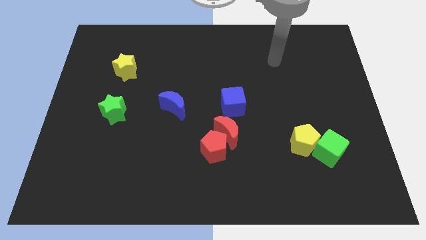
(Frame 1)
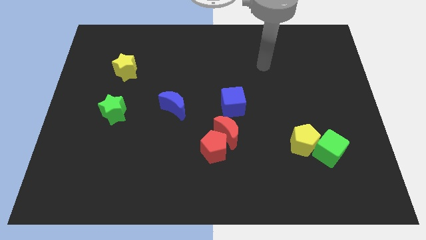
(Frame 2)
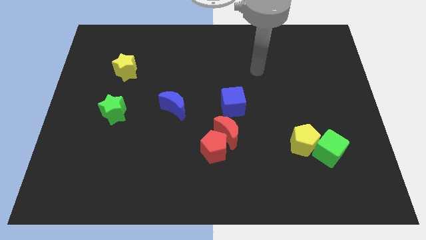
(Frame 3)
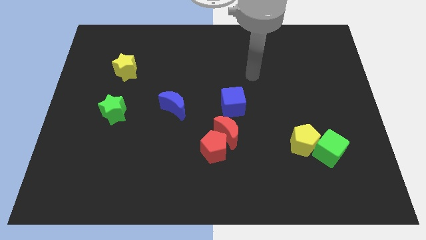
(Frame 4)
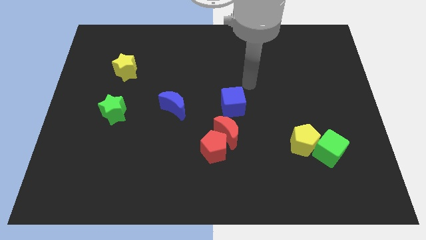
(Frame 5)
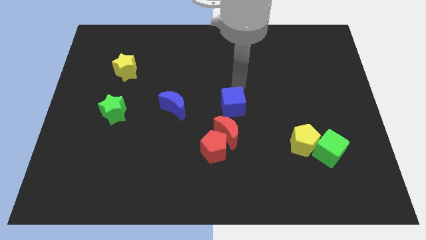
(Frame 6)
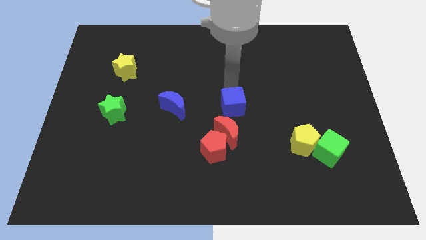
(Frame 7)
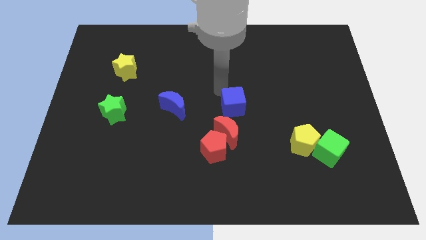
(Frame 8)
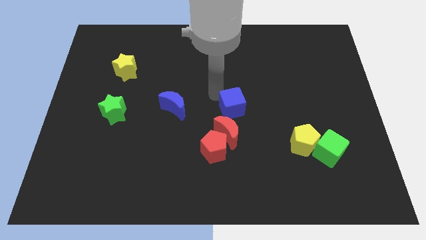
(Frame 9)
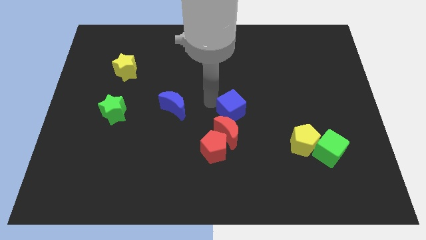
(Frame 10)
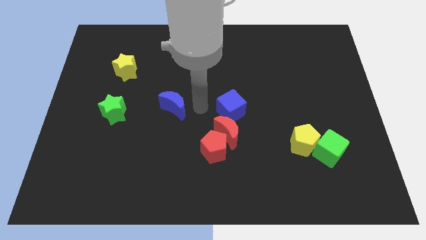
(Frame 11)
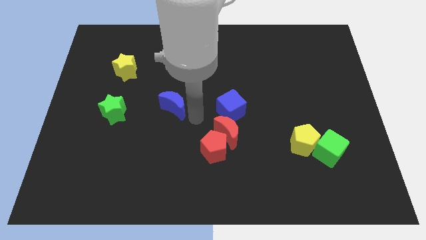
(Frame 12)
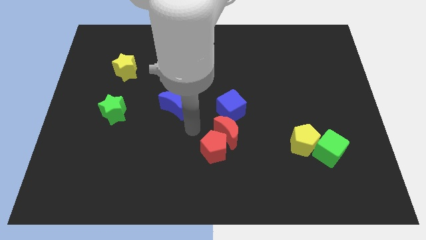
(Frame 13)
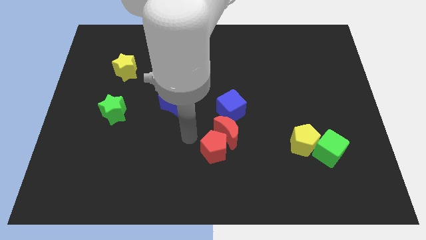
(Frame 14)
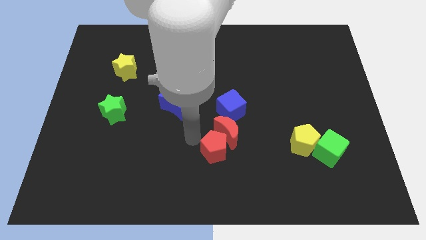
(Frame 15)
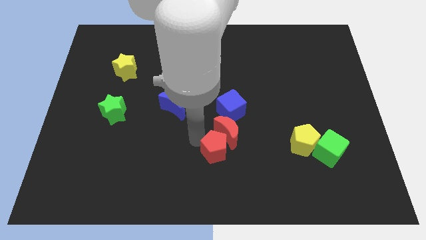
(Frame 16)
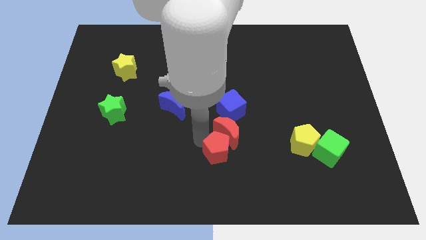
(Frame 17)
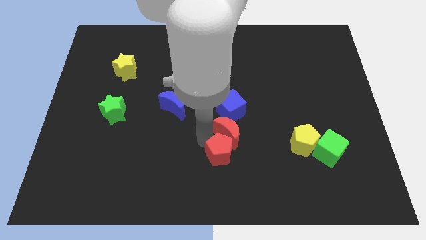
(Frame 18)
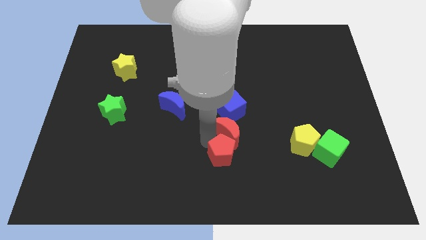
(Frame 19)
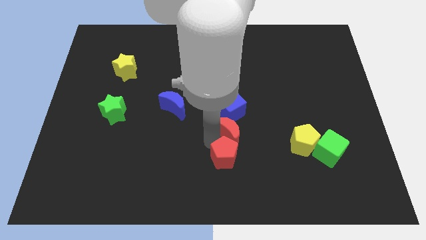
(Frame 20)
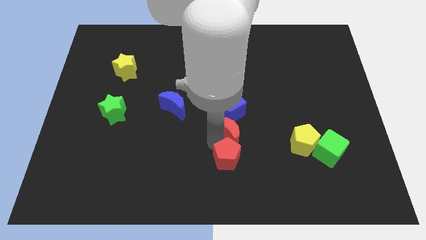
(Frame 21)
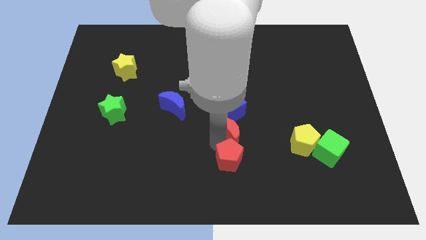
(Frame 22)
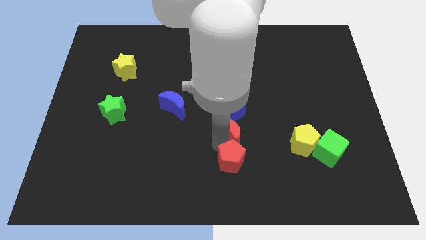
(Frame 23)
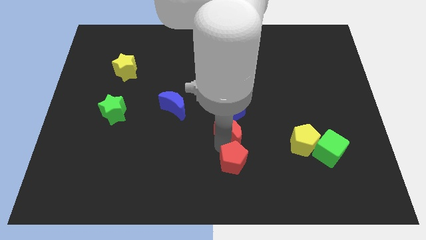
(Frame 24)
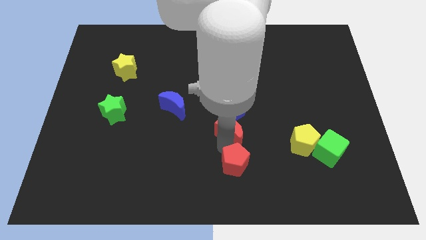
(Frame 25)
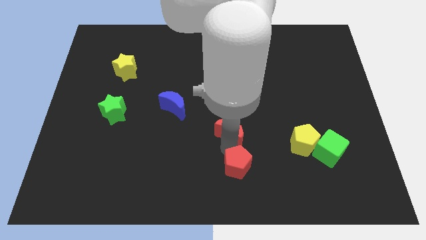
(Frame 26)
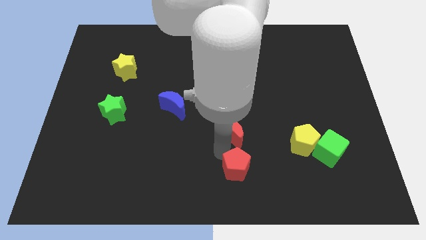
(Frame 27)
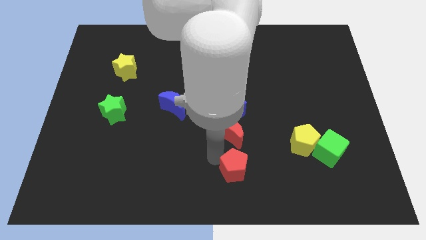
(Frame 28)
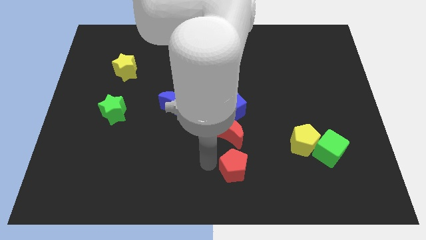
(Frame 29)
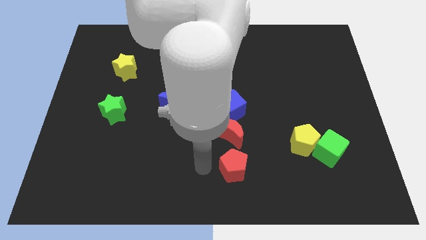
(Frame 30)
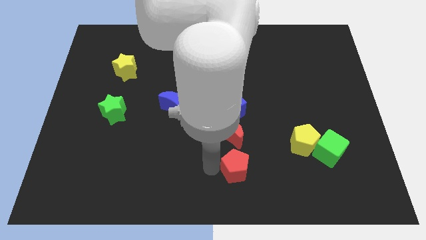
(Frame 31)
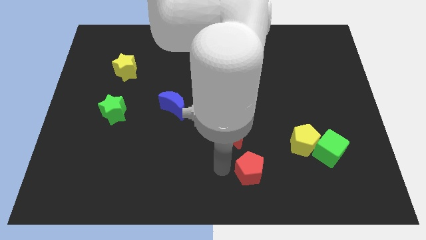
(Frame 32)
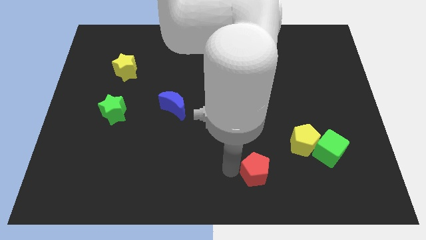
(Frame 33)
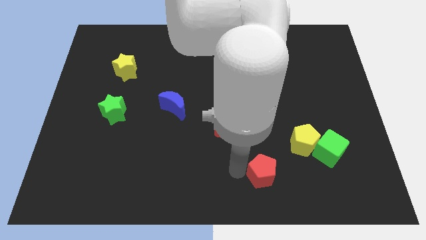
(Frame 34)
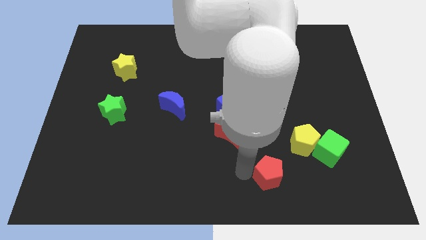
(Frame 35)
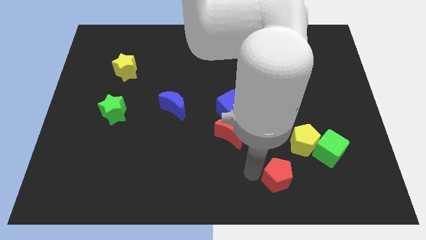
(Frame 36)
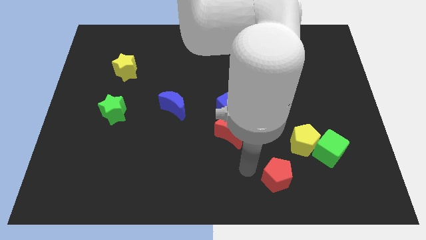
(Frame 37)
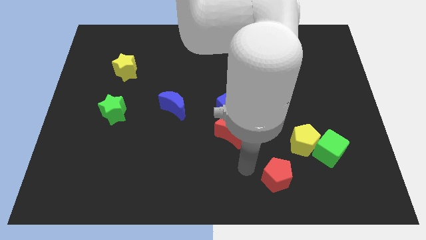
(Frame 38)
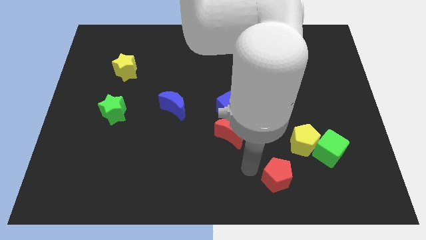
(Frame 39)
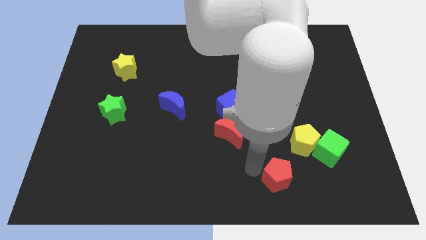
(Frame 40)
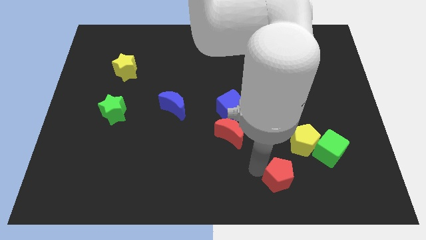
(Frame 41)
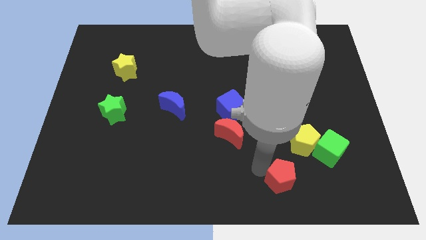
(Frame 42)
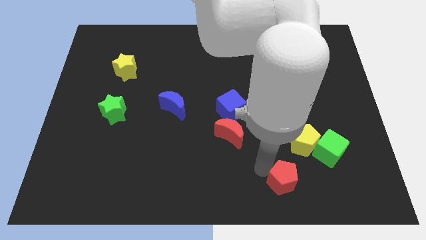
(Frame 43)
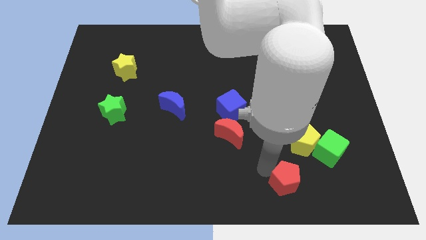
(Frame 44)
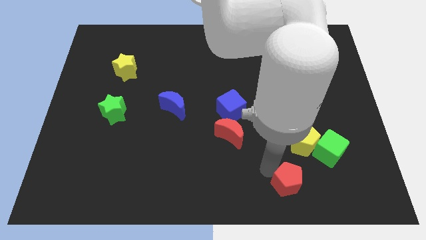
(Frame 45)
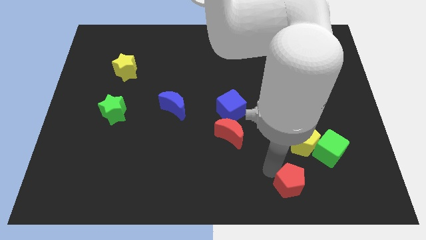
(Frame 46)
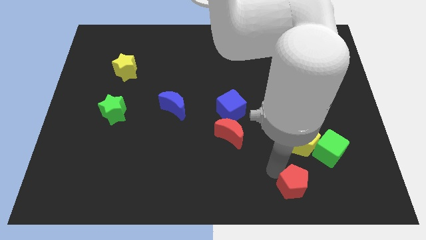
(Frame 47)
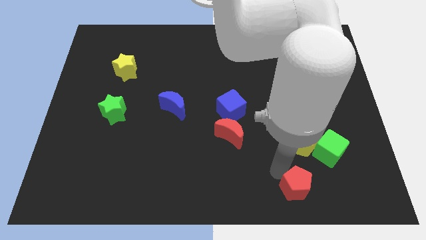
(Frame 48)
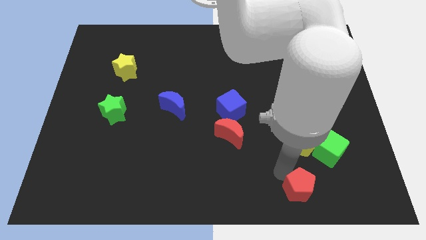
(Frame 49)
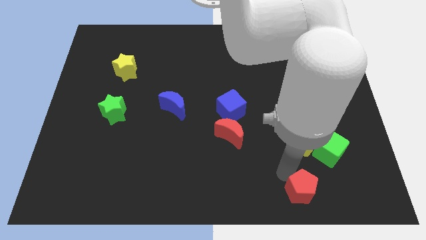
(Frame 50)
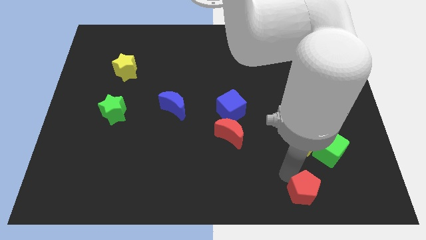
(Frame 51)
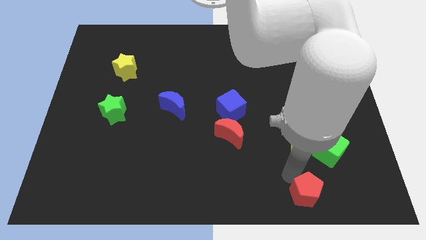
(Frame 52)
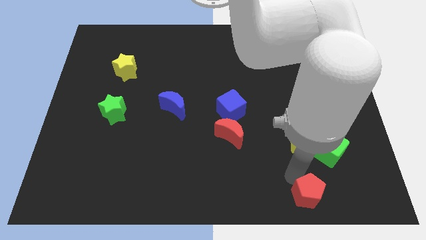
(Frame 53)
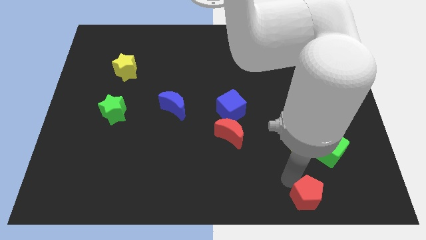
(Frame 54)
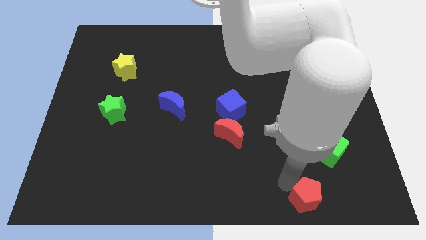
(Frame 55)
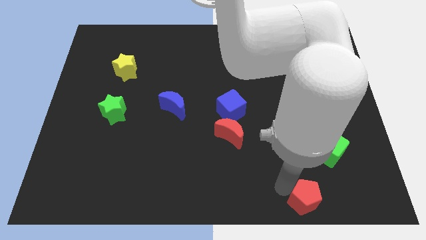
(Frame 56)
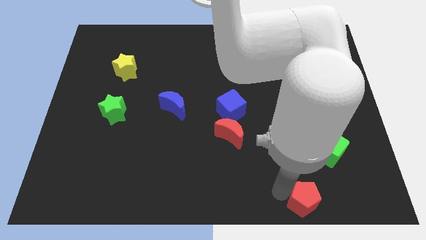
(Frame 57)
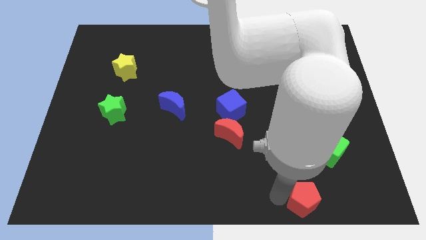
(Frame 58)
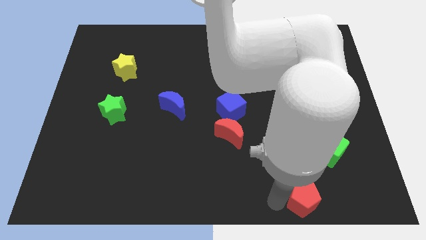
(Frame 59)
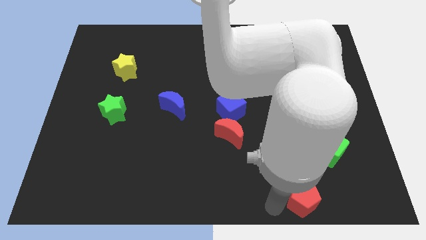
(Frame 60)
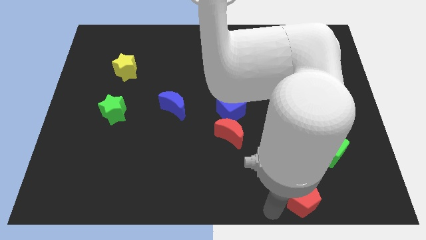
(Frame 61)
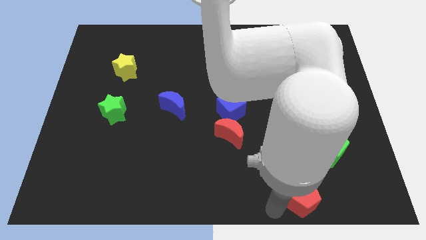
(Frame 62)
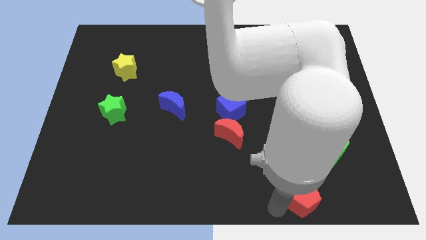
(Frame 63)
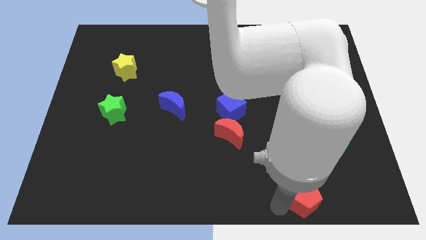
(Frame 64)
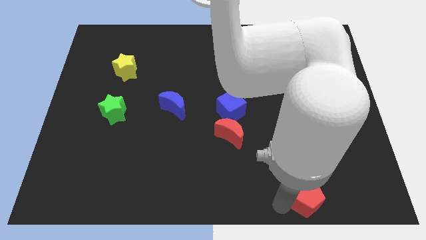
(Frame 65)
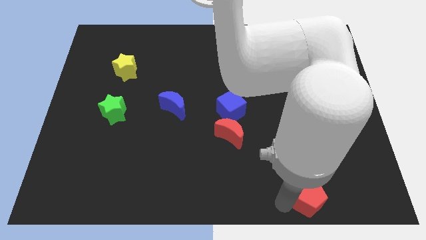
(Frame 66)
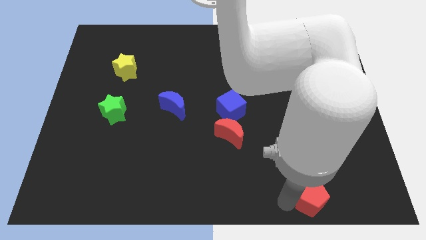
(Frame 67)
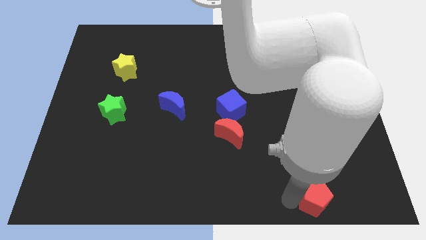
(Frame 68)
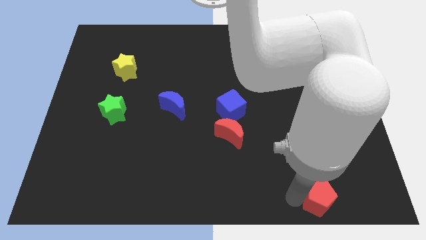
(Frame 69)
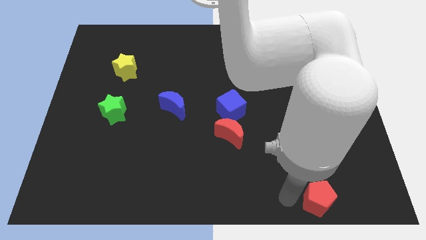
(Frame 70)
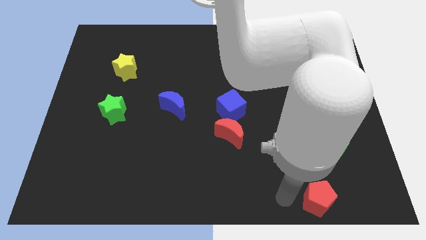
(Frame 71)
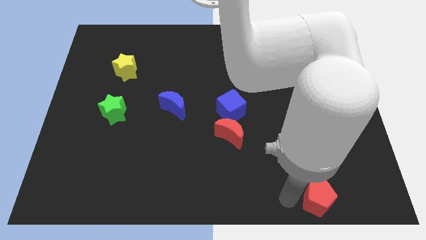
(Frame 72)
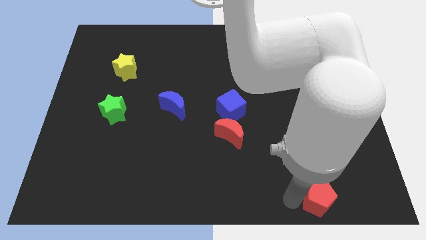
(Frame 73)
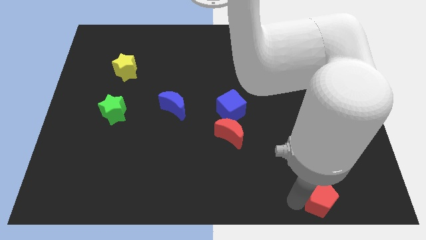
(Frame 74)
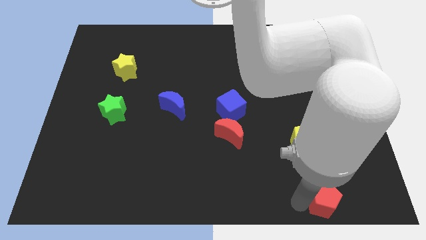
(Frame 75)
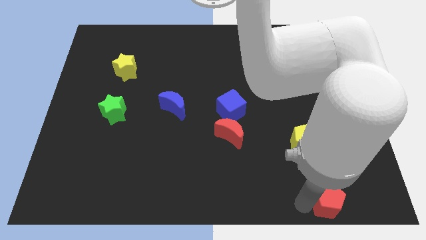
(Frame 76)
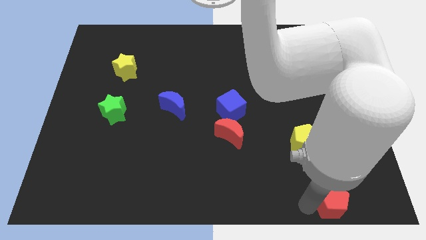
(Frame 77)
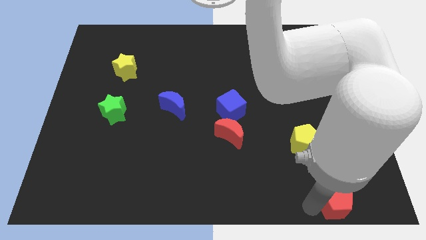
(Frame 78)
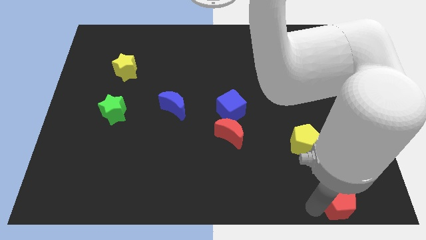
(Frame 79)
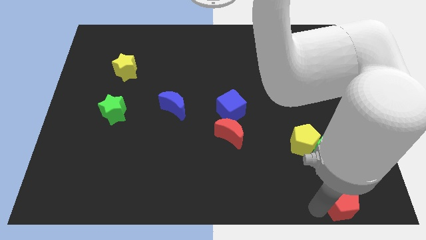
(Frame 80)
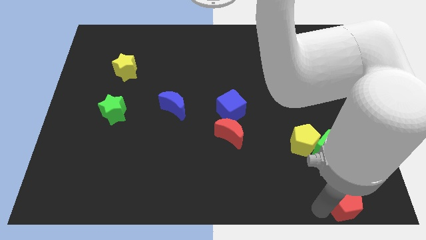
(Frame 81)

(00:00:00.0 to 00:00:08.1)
push the red pentagon to the bottom right of the board
